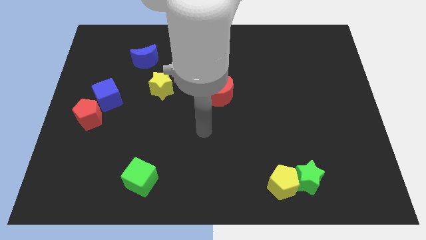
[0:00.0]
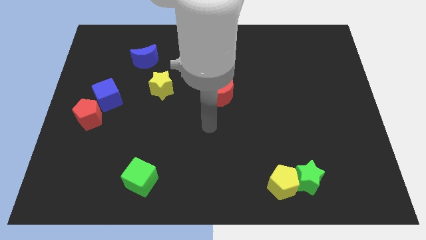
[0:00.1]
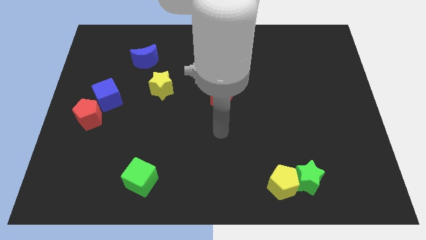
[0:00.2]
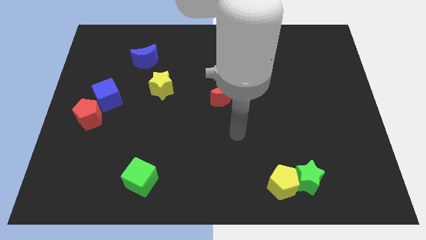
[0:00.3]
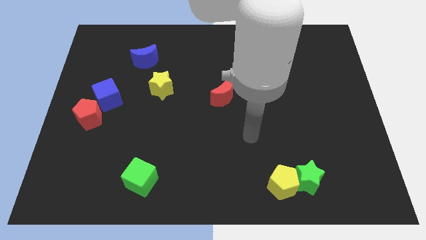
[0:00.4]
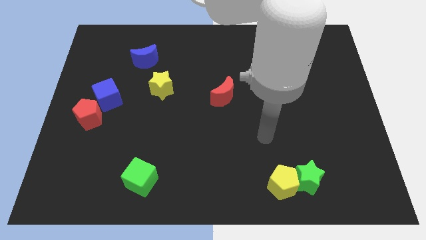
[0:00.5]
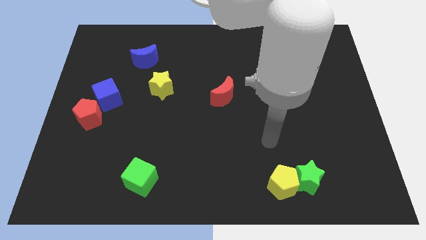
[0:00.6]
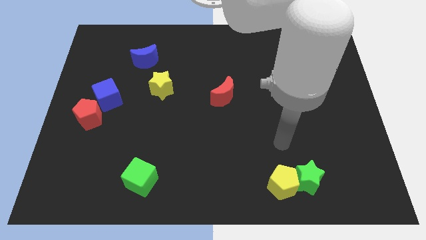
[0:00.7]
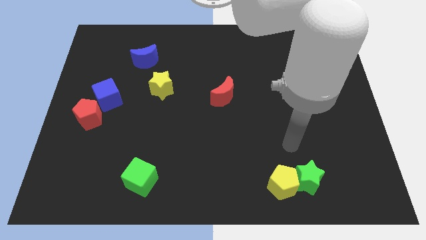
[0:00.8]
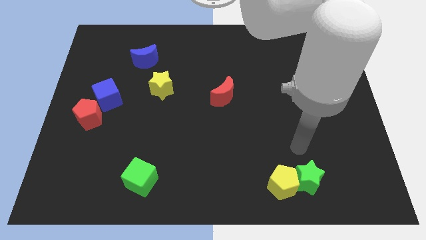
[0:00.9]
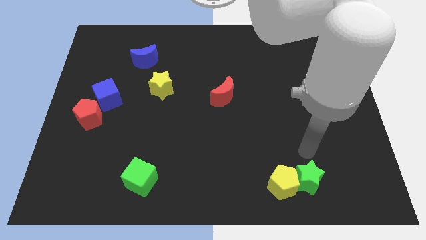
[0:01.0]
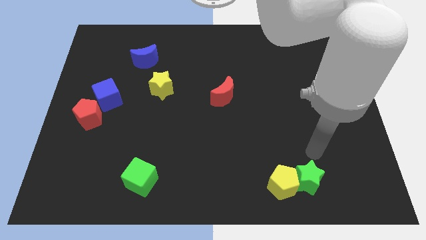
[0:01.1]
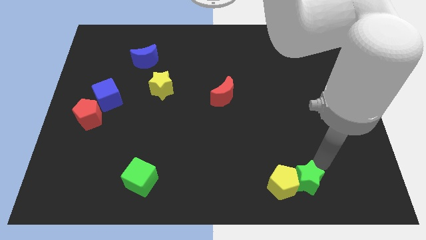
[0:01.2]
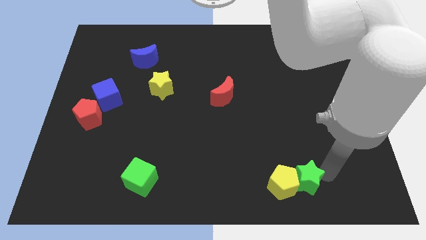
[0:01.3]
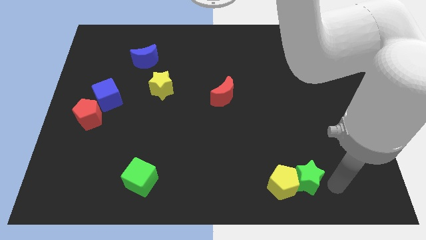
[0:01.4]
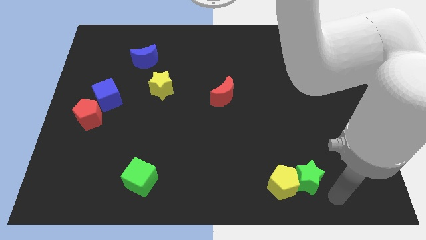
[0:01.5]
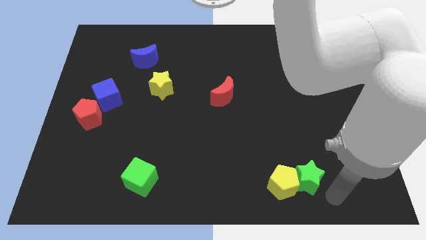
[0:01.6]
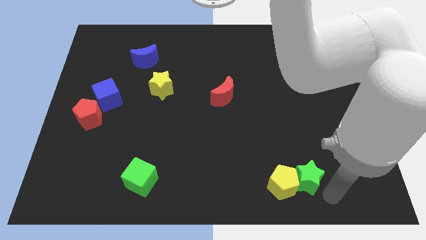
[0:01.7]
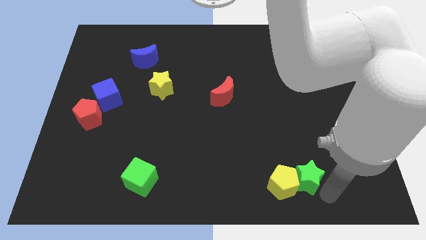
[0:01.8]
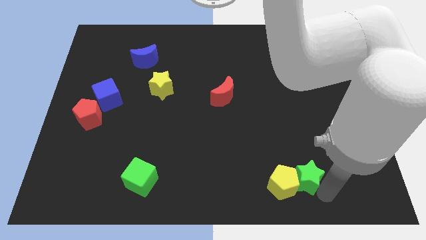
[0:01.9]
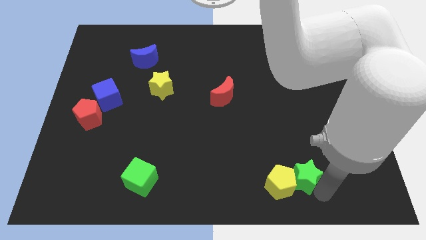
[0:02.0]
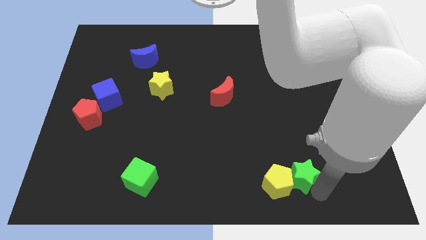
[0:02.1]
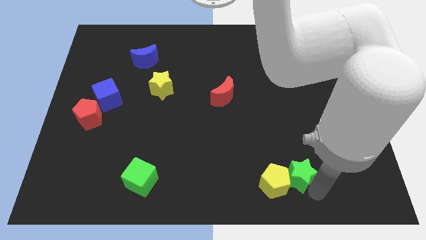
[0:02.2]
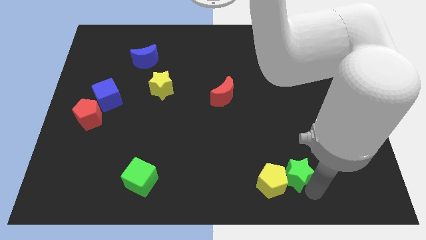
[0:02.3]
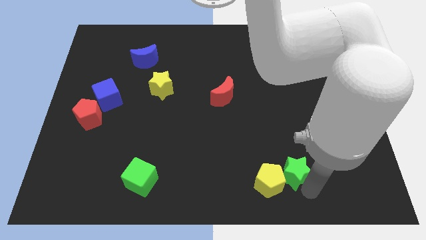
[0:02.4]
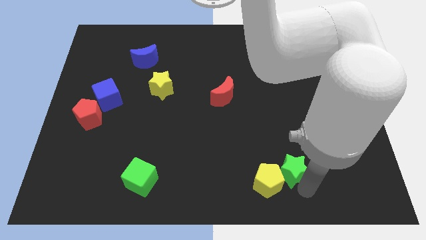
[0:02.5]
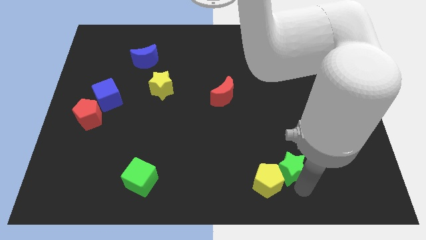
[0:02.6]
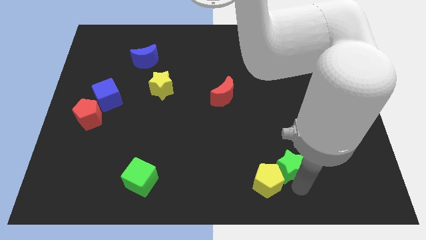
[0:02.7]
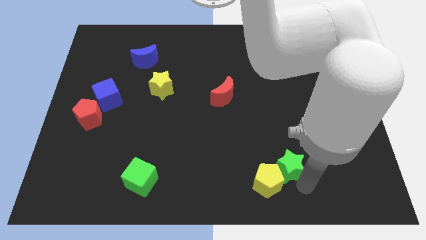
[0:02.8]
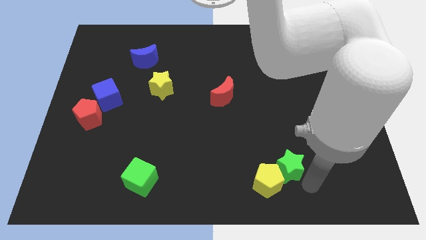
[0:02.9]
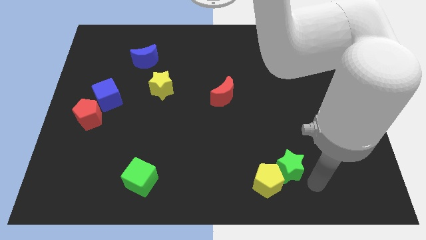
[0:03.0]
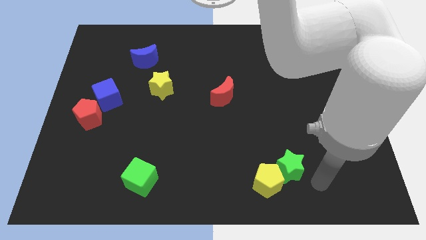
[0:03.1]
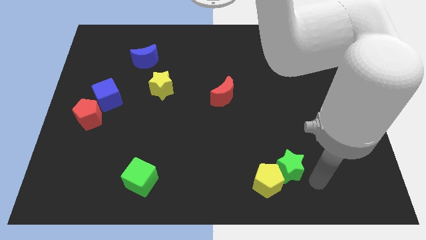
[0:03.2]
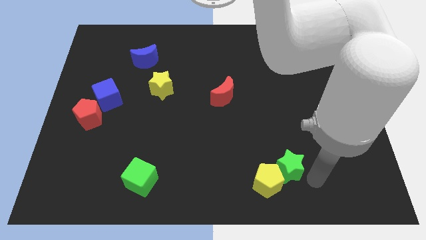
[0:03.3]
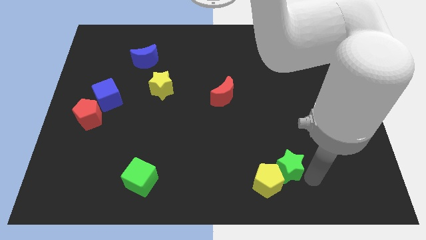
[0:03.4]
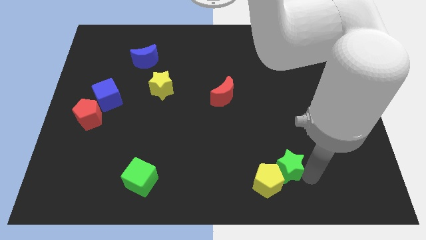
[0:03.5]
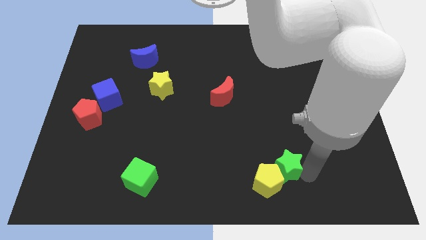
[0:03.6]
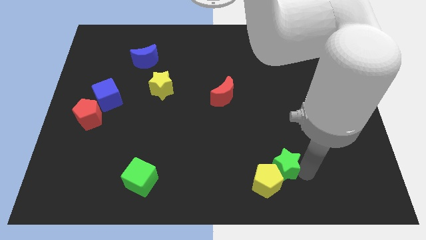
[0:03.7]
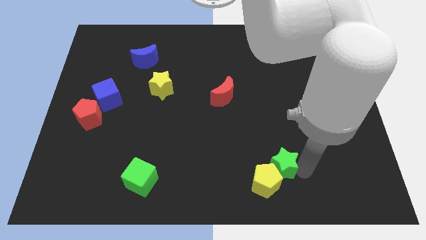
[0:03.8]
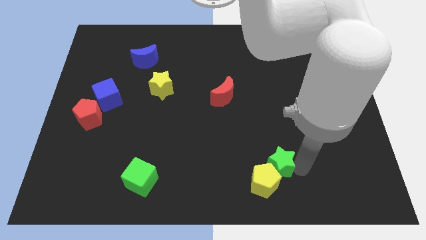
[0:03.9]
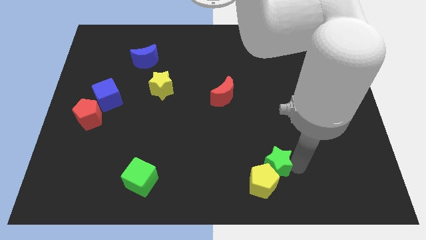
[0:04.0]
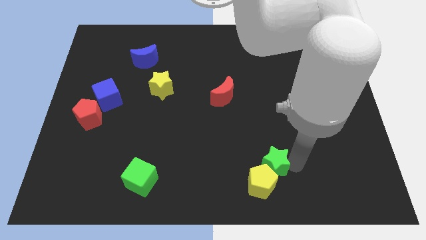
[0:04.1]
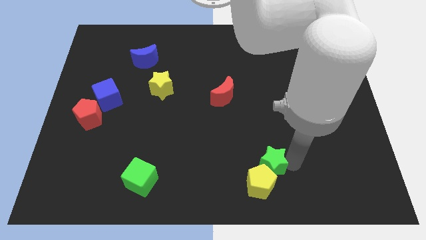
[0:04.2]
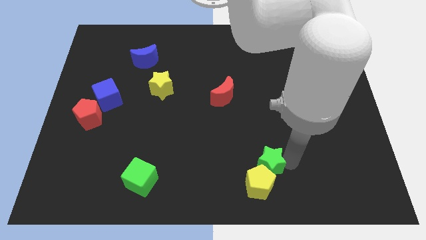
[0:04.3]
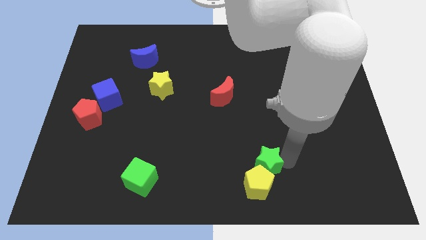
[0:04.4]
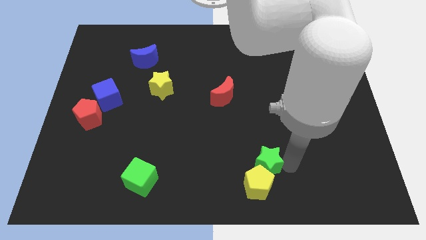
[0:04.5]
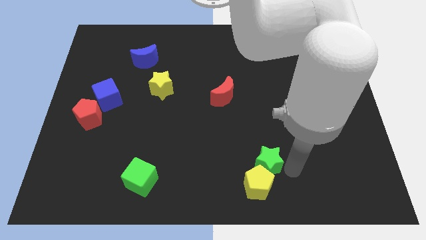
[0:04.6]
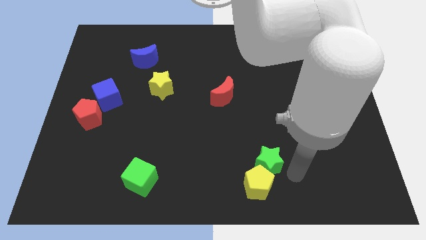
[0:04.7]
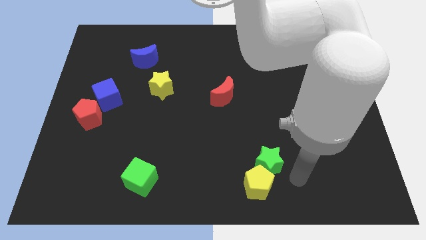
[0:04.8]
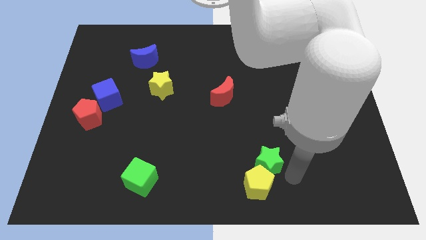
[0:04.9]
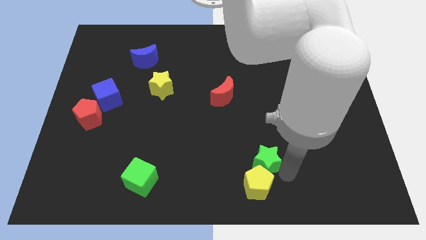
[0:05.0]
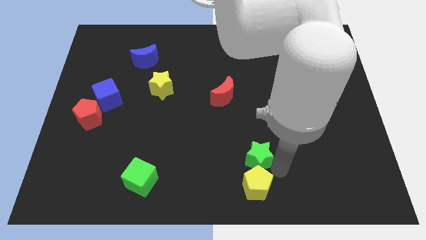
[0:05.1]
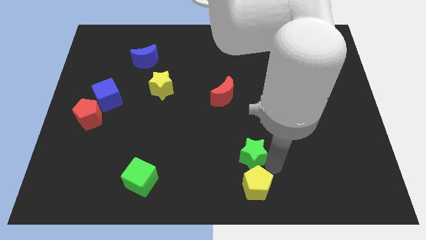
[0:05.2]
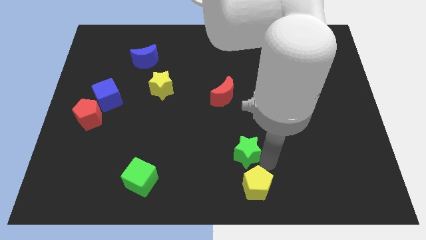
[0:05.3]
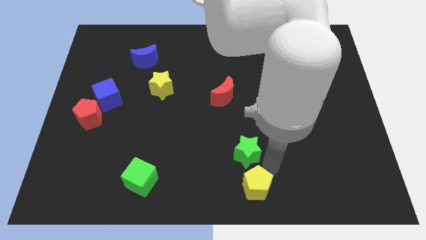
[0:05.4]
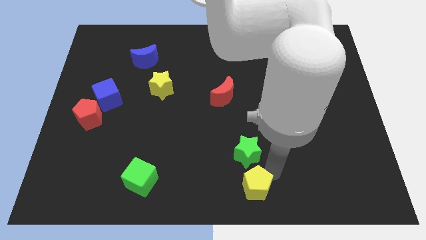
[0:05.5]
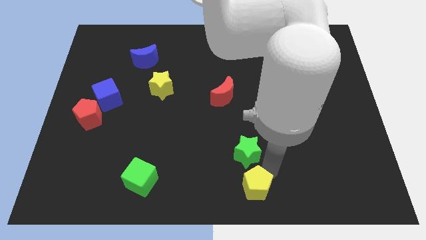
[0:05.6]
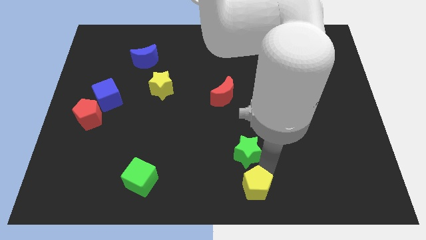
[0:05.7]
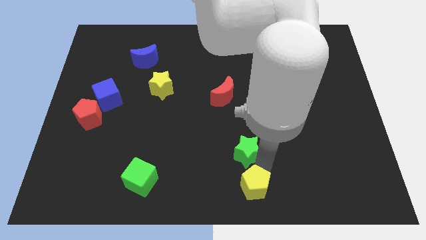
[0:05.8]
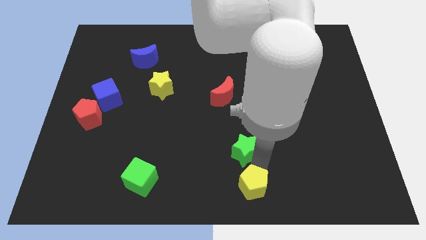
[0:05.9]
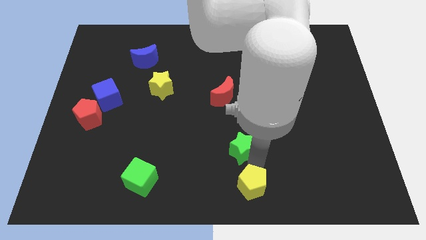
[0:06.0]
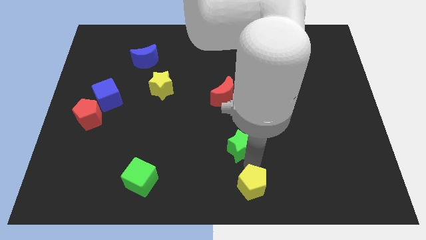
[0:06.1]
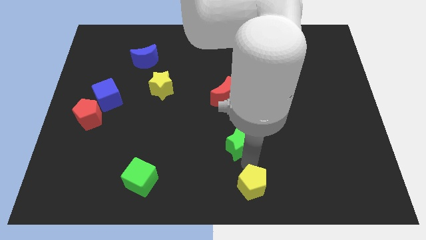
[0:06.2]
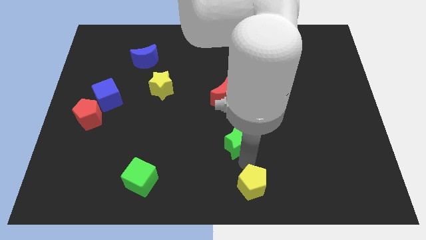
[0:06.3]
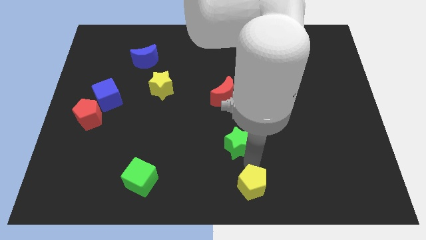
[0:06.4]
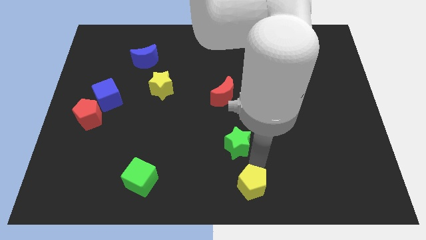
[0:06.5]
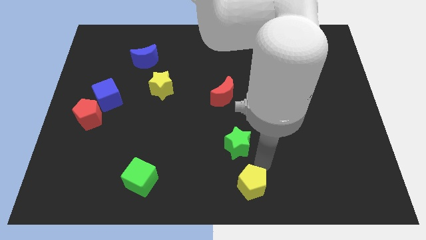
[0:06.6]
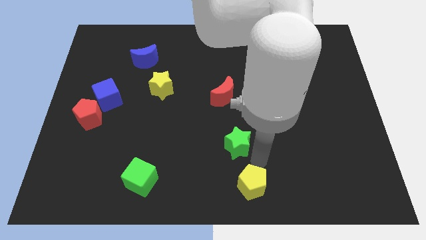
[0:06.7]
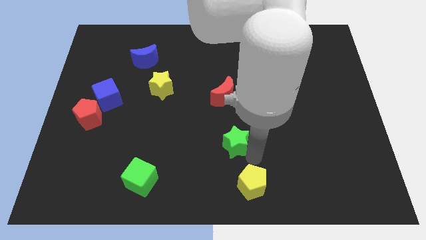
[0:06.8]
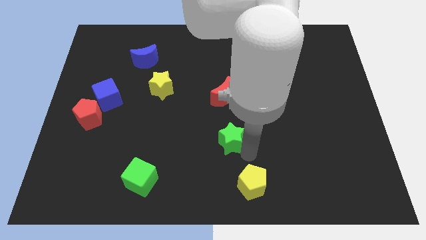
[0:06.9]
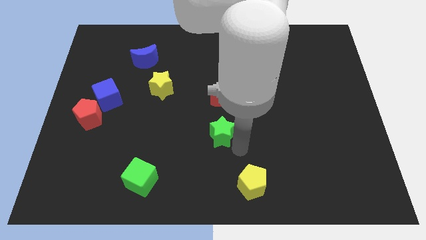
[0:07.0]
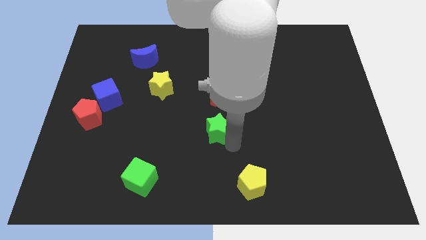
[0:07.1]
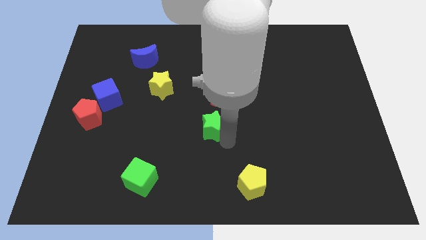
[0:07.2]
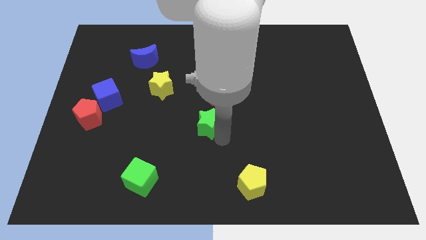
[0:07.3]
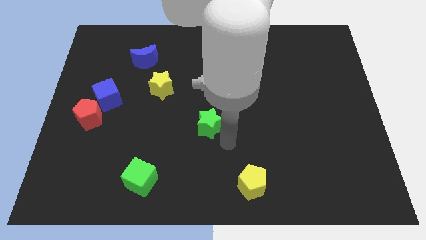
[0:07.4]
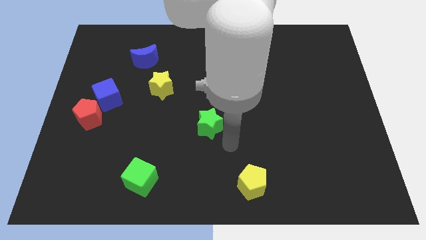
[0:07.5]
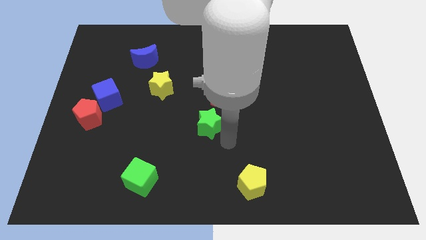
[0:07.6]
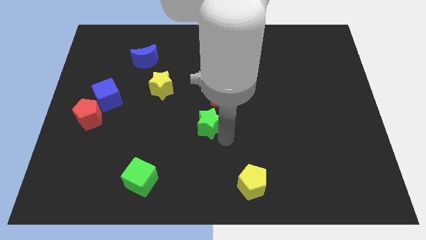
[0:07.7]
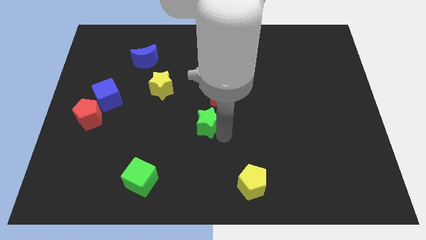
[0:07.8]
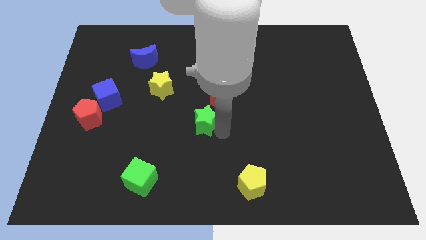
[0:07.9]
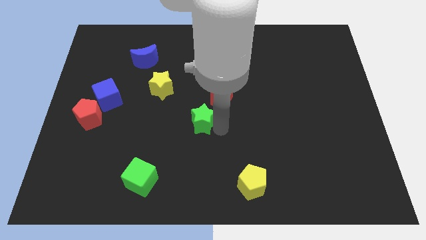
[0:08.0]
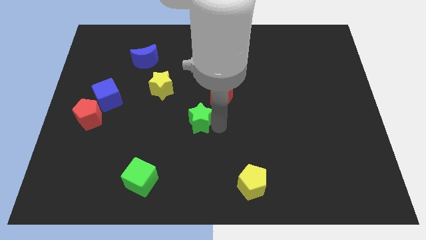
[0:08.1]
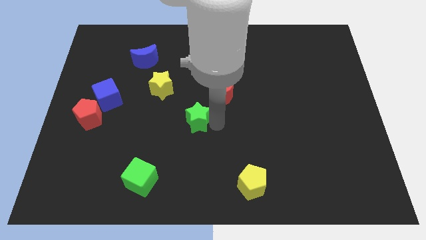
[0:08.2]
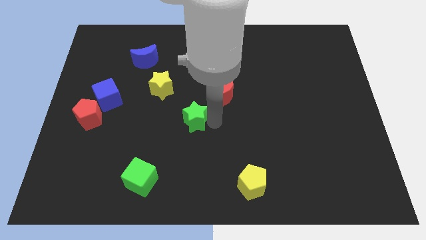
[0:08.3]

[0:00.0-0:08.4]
slide the green star to the bottom right side of the yellow star
